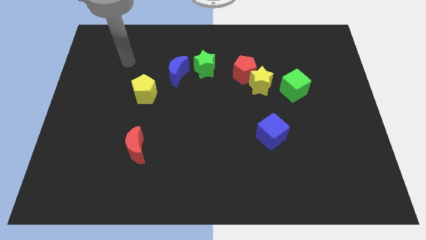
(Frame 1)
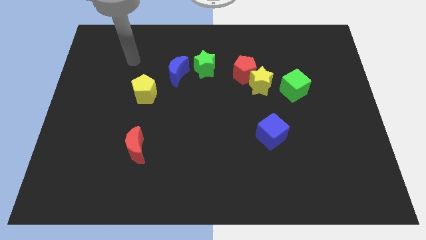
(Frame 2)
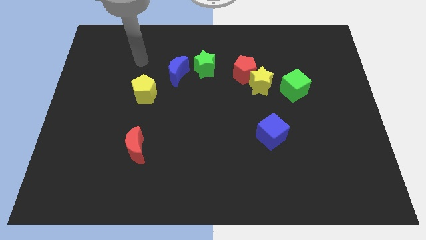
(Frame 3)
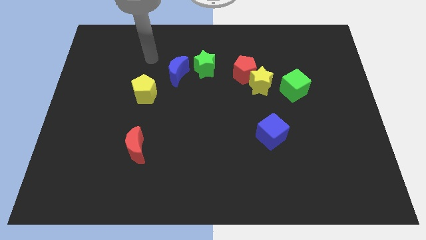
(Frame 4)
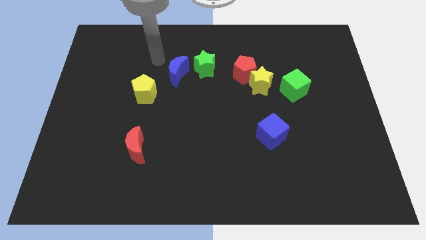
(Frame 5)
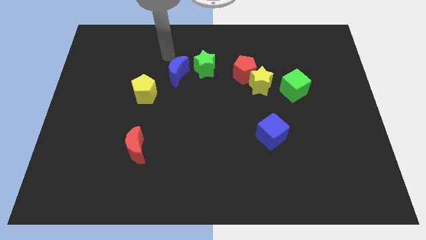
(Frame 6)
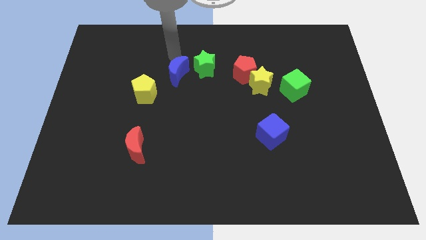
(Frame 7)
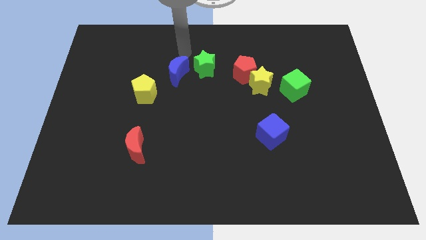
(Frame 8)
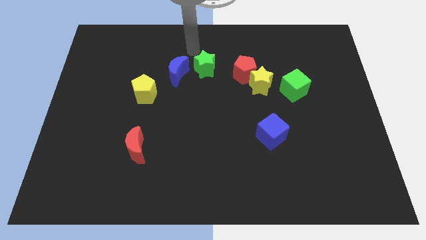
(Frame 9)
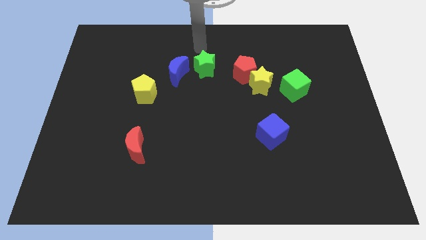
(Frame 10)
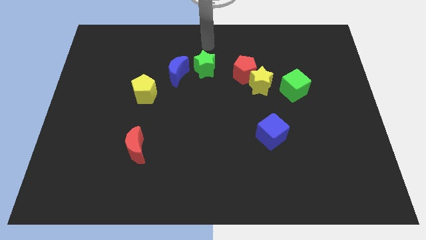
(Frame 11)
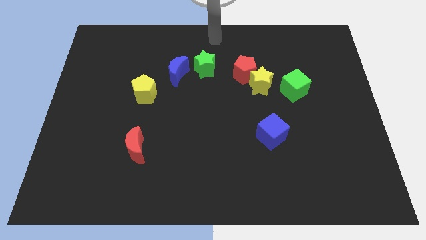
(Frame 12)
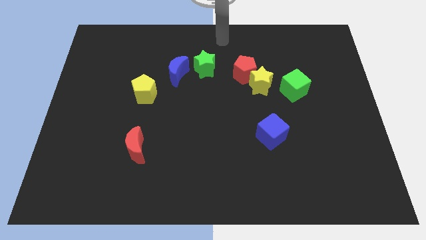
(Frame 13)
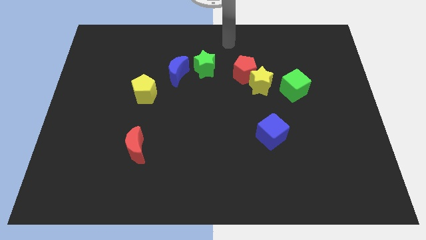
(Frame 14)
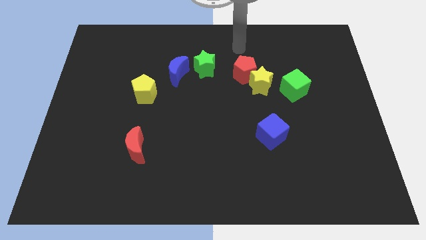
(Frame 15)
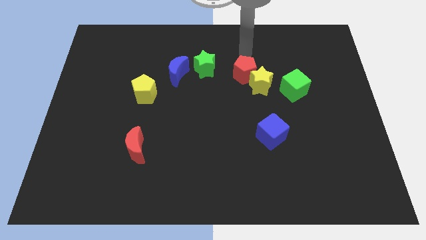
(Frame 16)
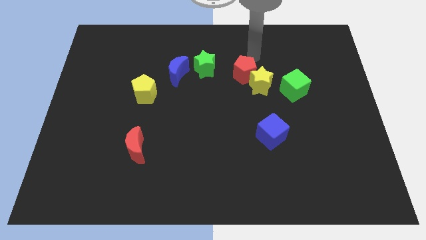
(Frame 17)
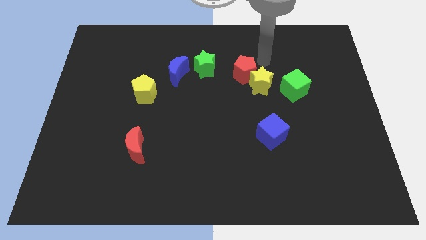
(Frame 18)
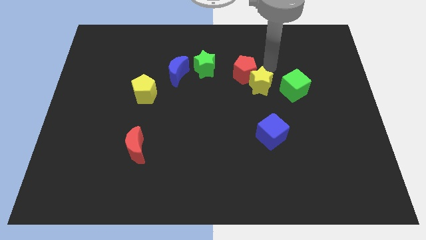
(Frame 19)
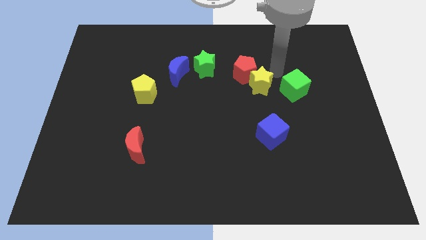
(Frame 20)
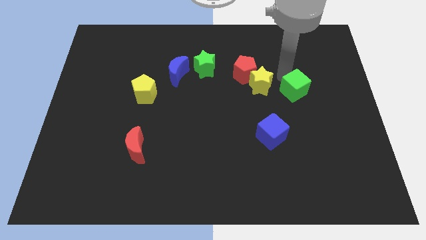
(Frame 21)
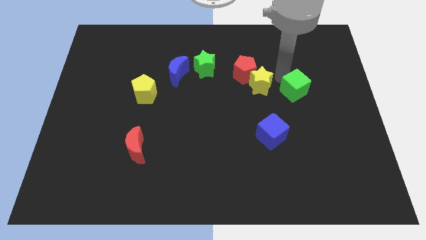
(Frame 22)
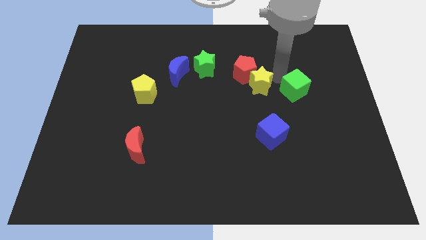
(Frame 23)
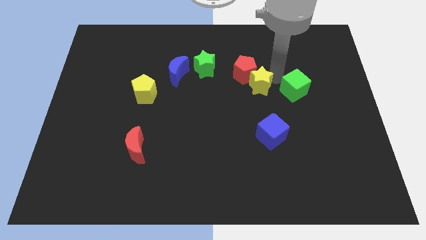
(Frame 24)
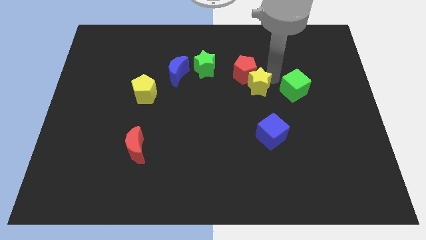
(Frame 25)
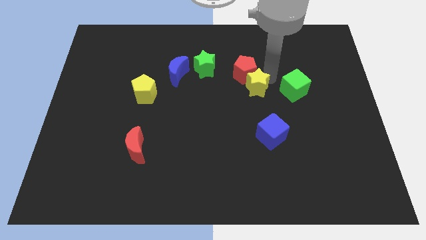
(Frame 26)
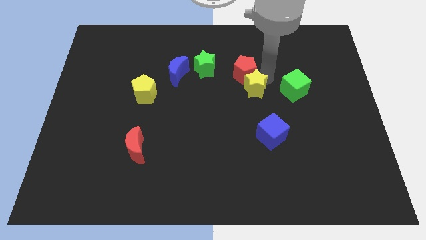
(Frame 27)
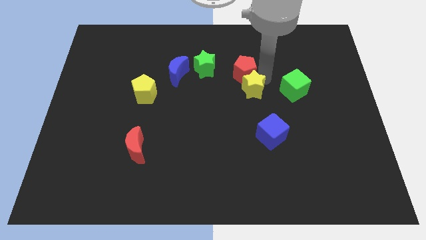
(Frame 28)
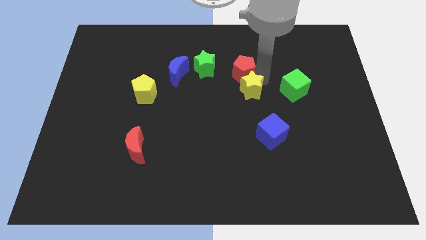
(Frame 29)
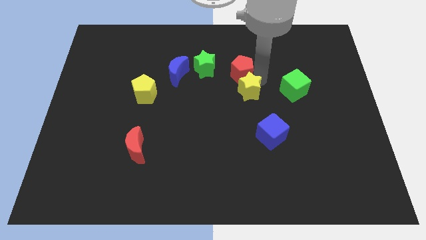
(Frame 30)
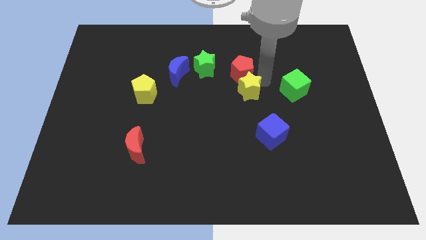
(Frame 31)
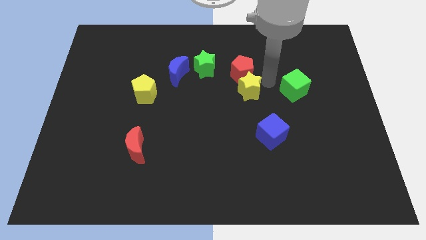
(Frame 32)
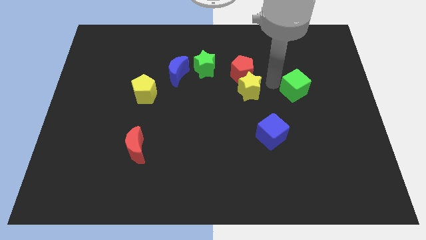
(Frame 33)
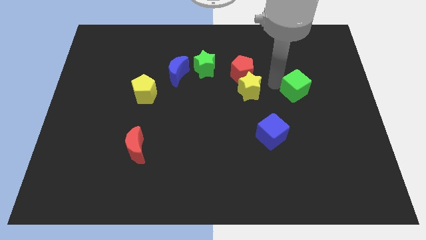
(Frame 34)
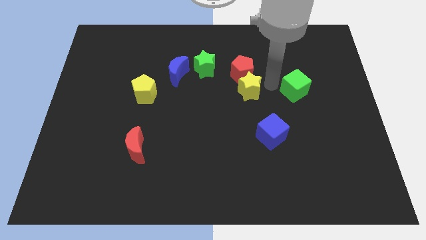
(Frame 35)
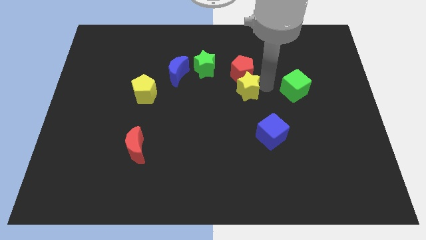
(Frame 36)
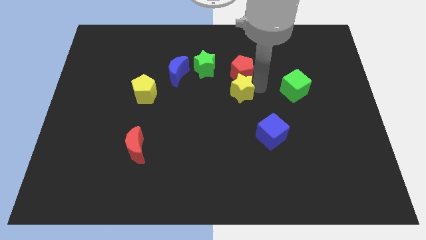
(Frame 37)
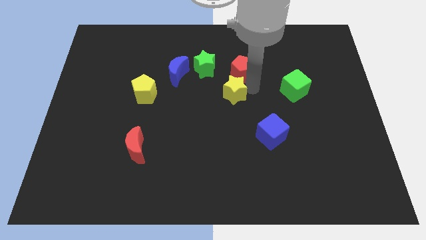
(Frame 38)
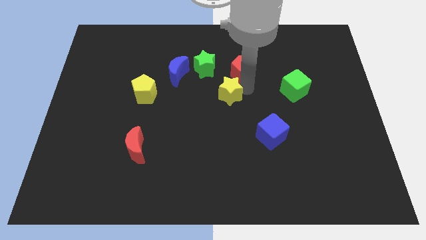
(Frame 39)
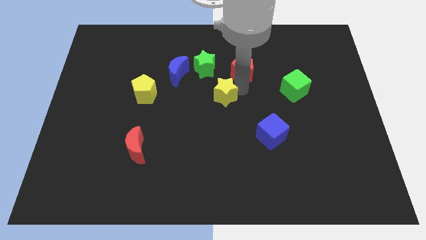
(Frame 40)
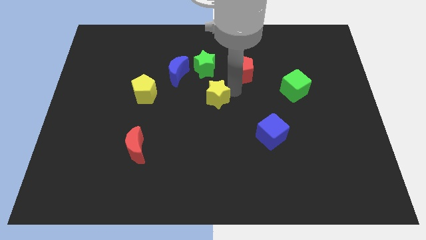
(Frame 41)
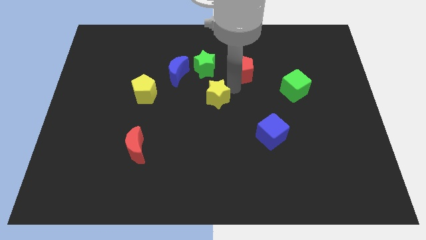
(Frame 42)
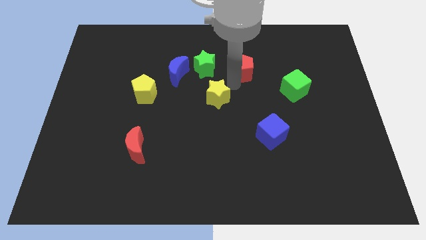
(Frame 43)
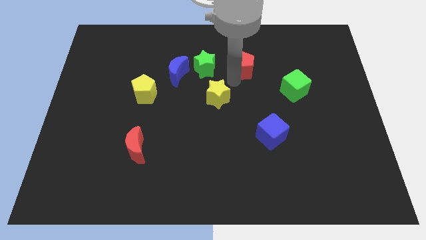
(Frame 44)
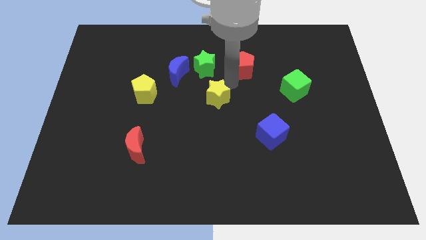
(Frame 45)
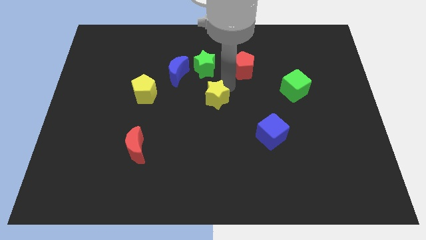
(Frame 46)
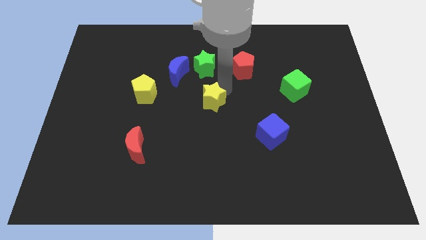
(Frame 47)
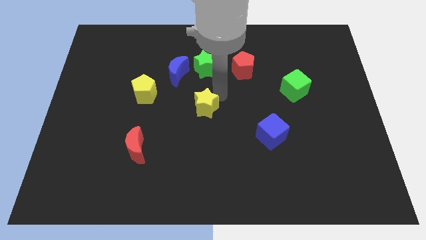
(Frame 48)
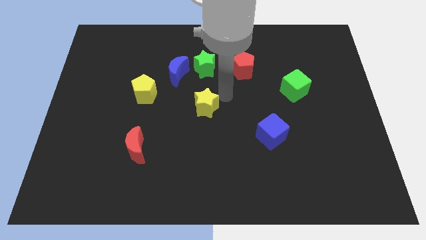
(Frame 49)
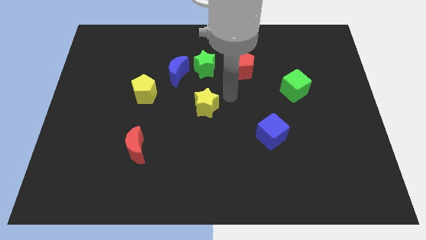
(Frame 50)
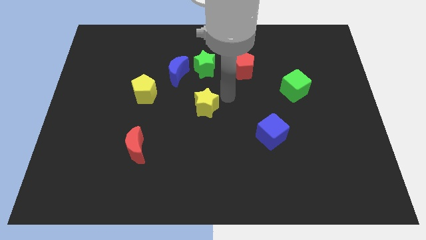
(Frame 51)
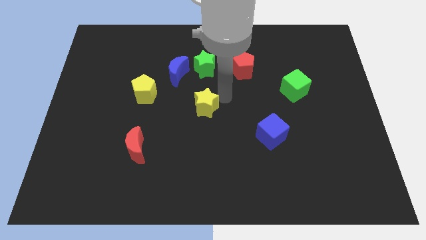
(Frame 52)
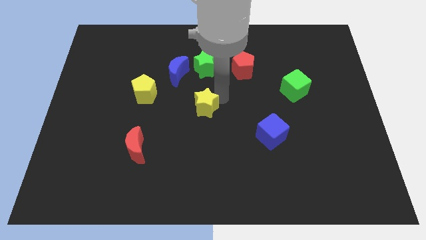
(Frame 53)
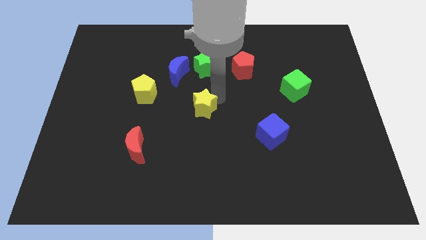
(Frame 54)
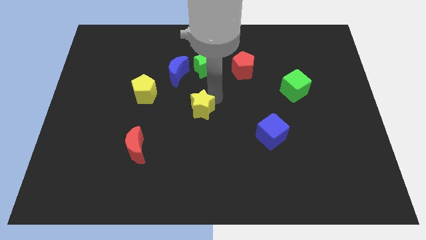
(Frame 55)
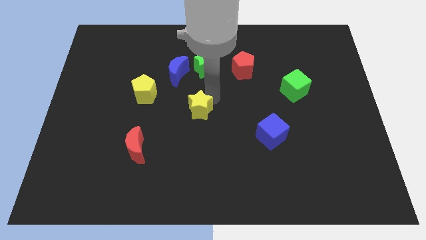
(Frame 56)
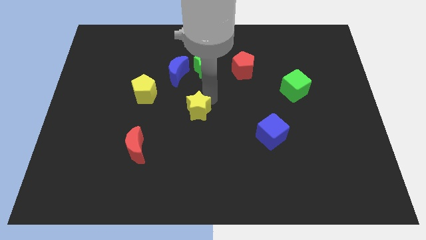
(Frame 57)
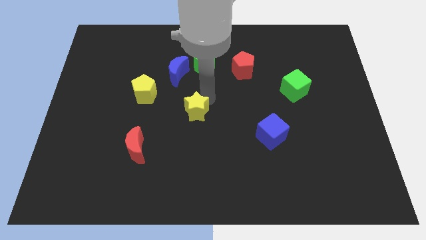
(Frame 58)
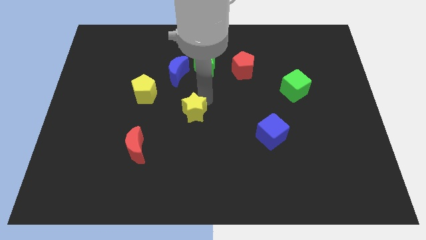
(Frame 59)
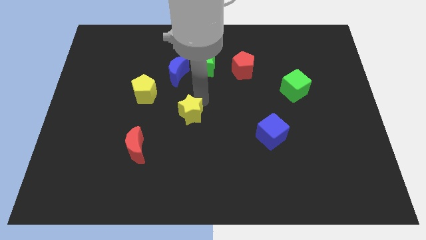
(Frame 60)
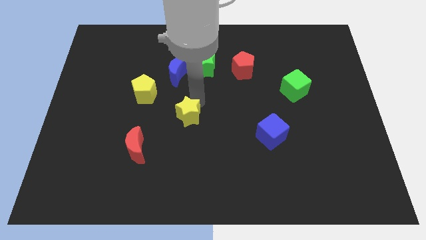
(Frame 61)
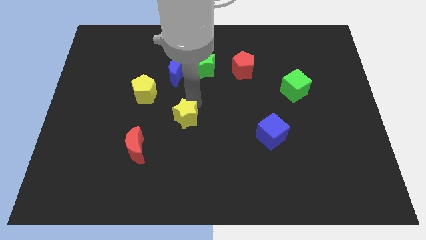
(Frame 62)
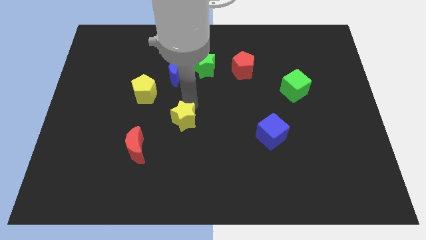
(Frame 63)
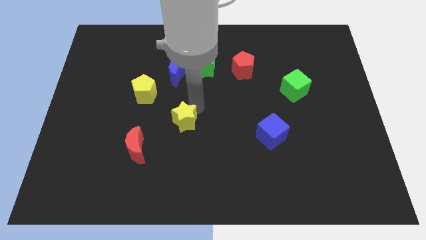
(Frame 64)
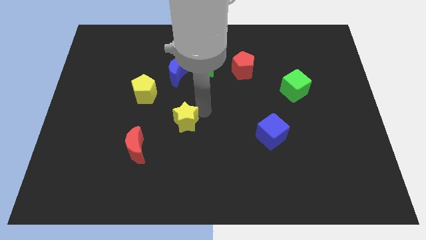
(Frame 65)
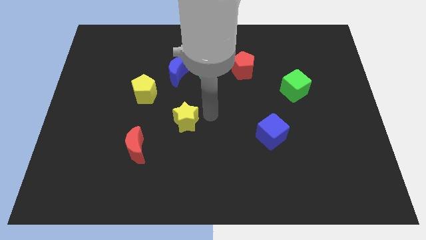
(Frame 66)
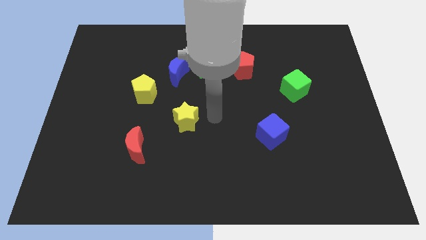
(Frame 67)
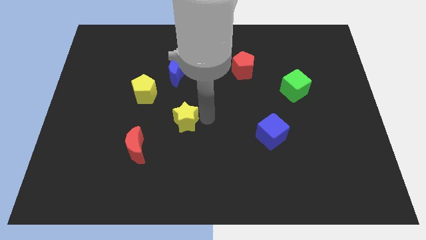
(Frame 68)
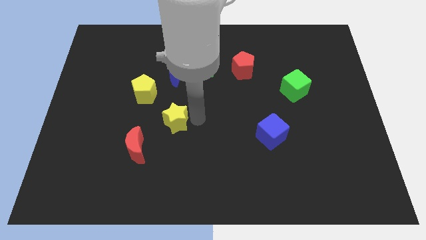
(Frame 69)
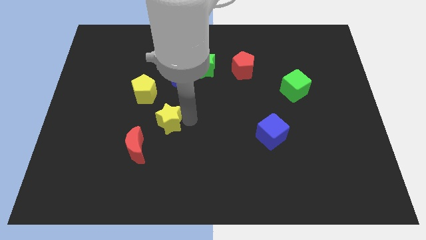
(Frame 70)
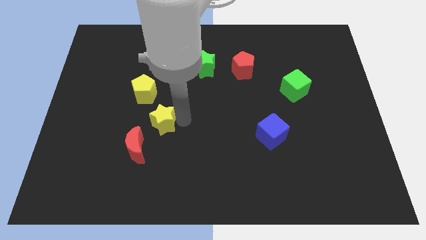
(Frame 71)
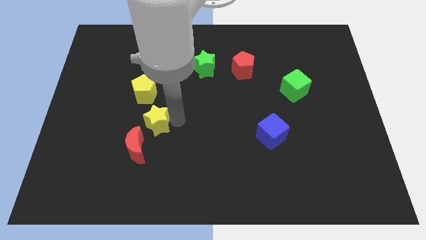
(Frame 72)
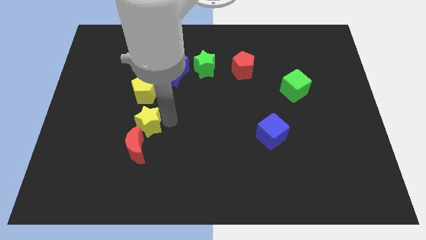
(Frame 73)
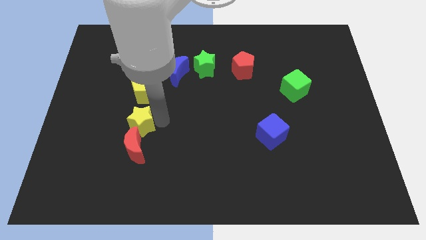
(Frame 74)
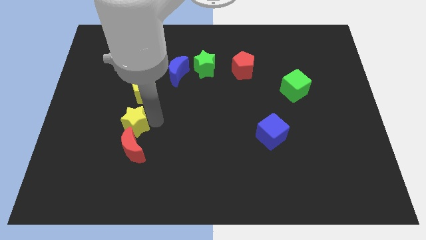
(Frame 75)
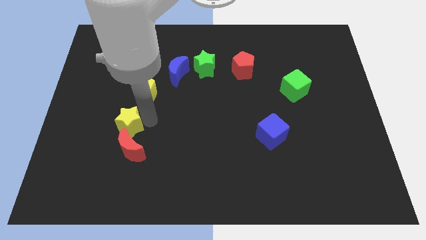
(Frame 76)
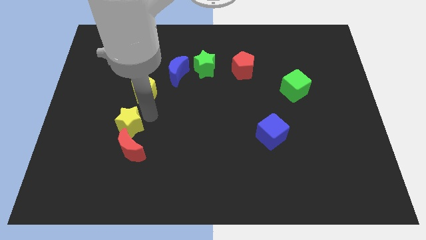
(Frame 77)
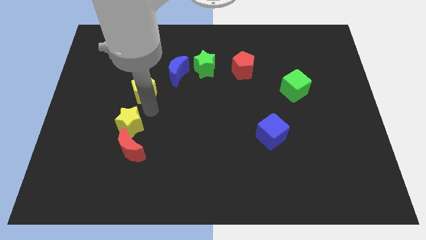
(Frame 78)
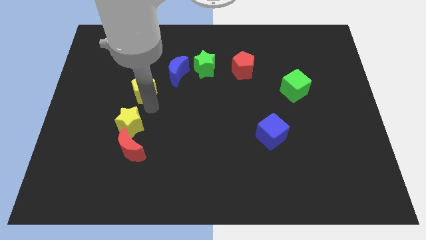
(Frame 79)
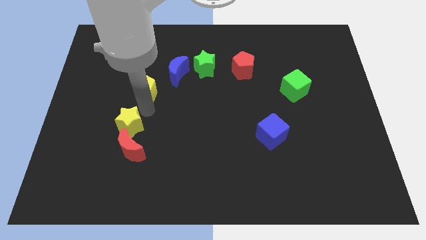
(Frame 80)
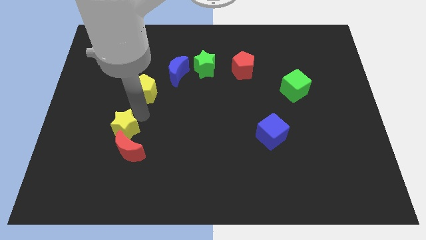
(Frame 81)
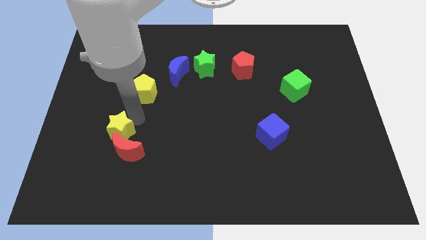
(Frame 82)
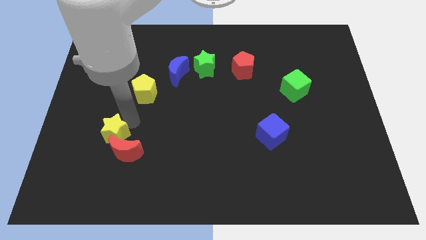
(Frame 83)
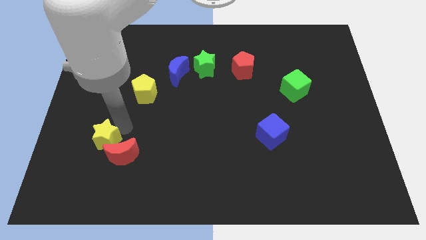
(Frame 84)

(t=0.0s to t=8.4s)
push the yellow star to the left side of the red moon
